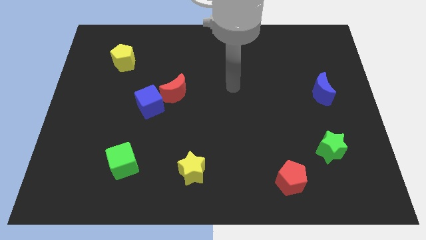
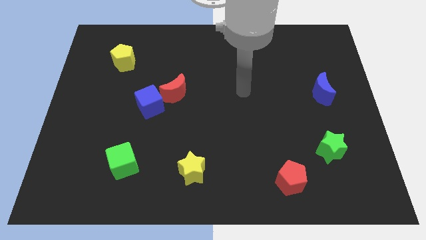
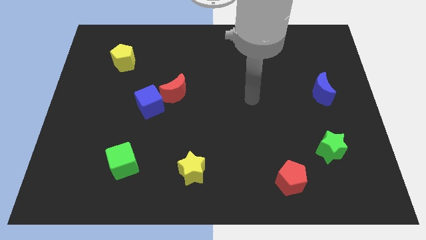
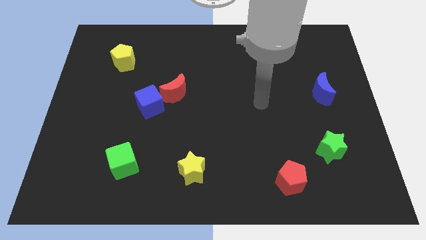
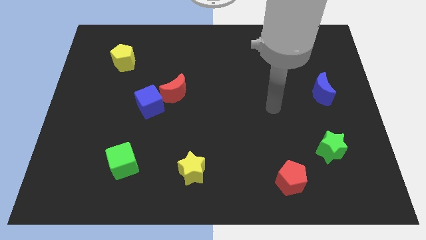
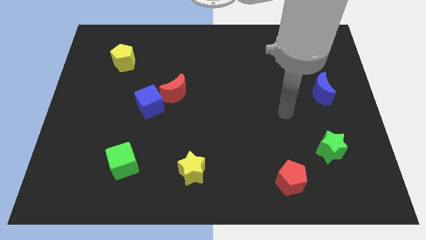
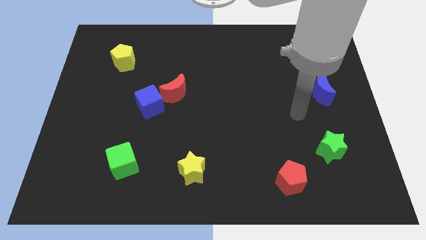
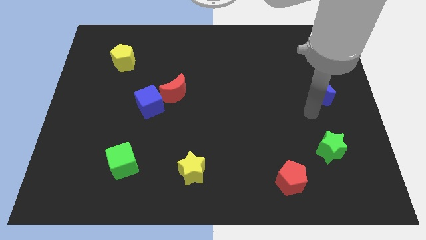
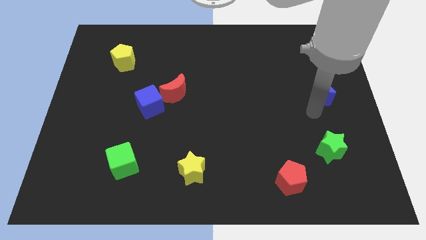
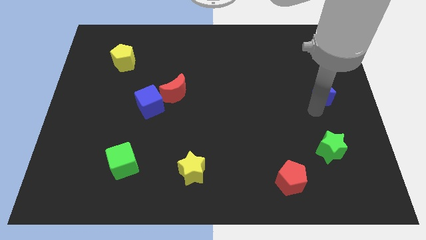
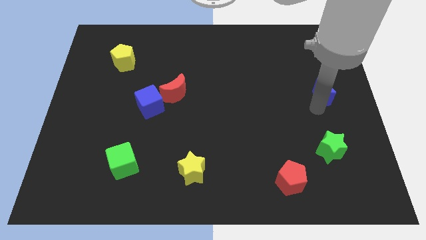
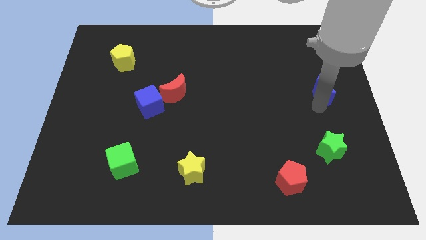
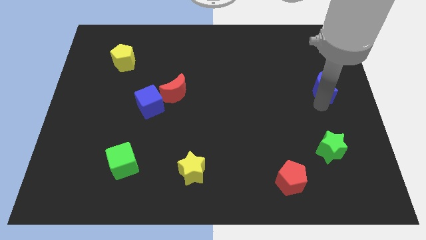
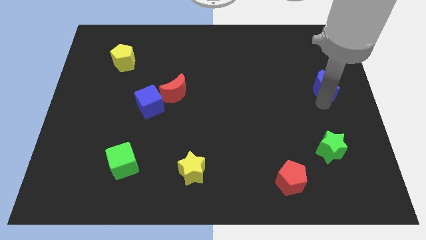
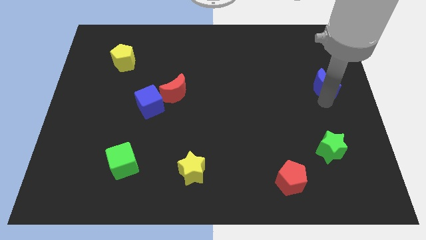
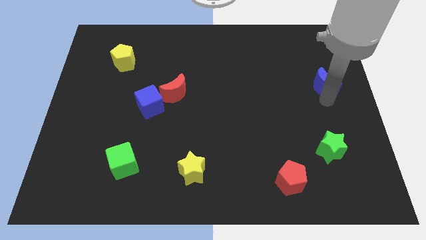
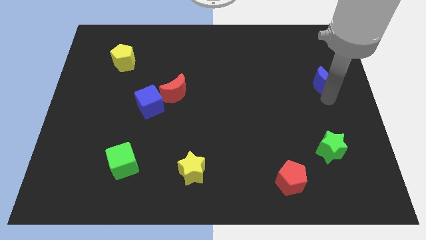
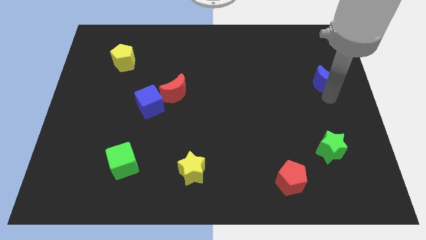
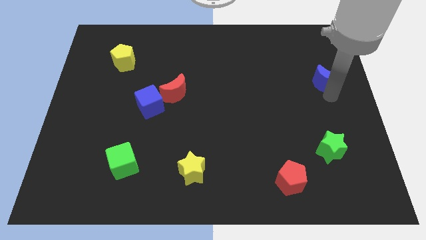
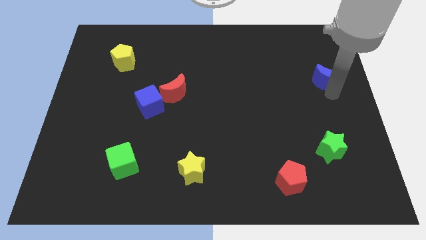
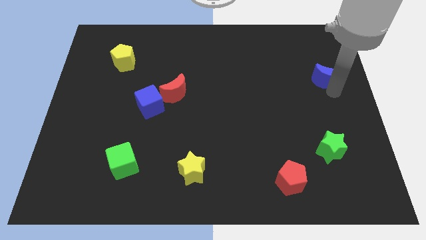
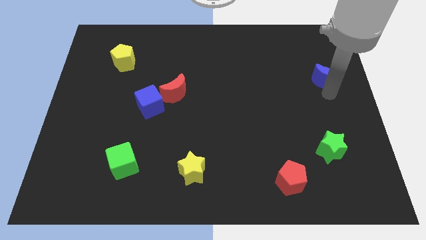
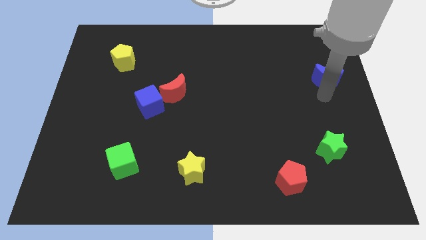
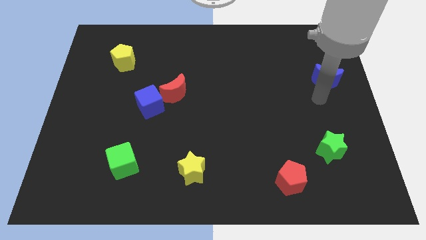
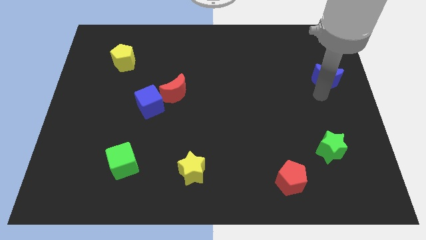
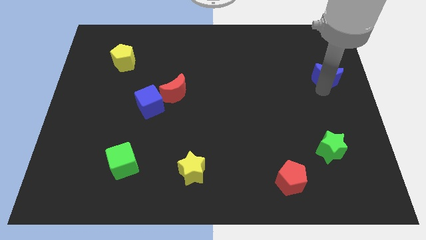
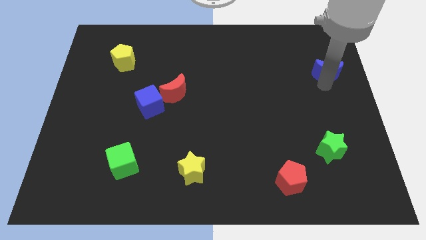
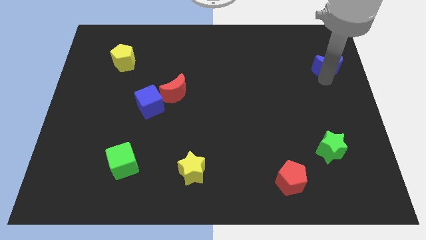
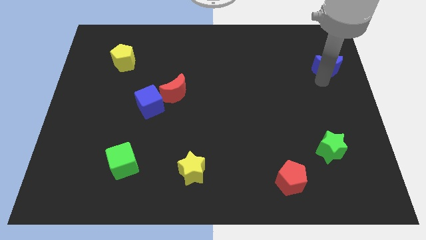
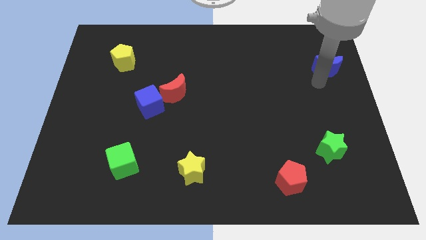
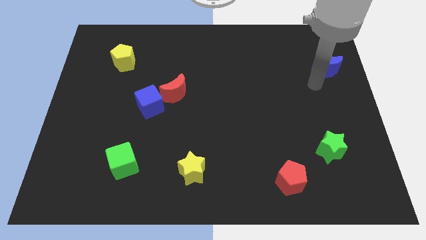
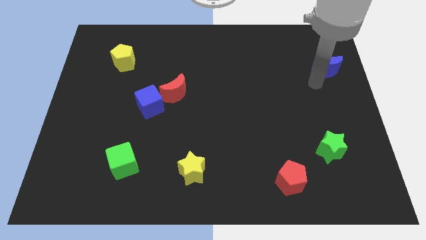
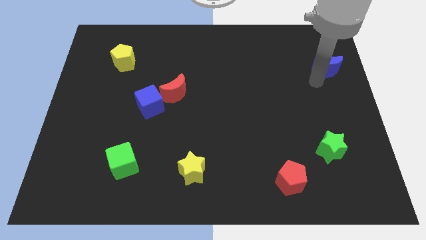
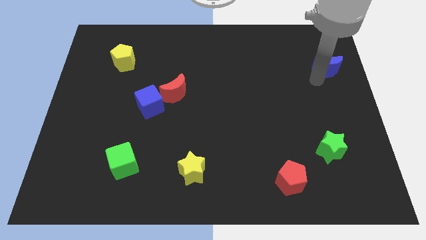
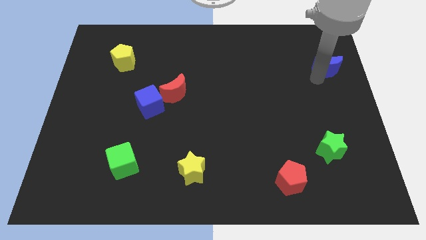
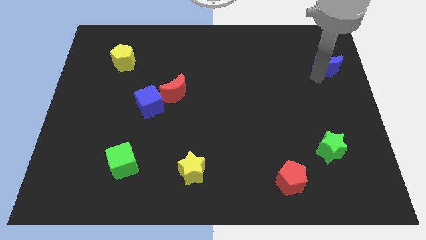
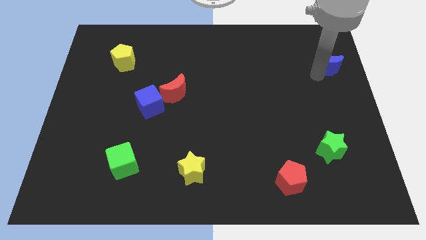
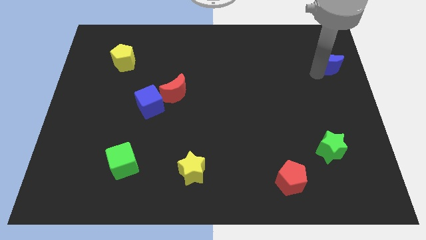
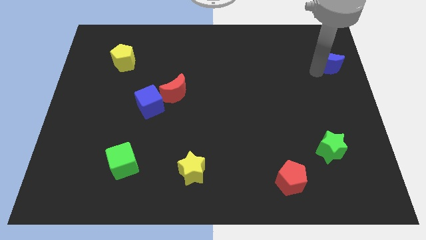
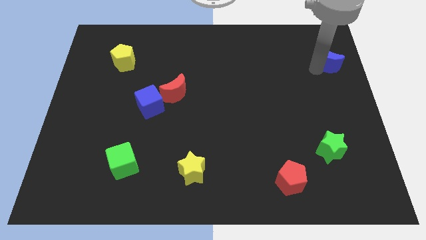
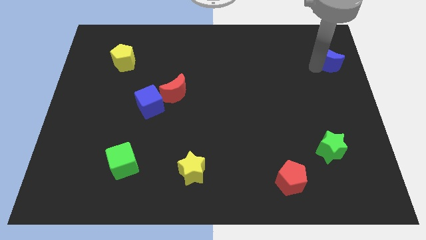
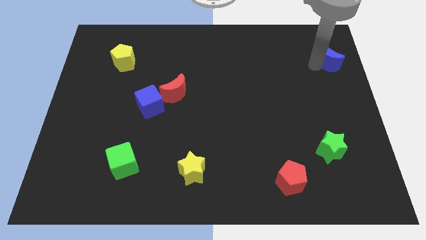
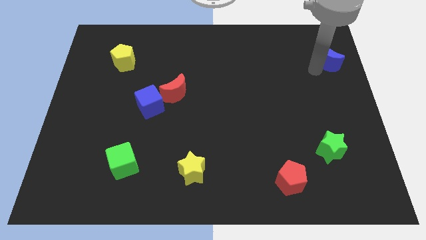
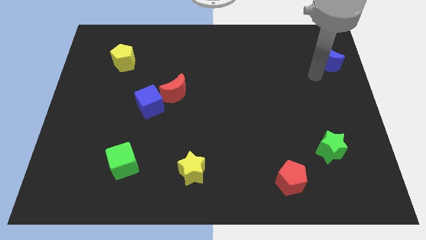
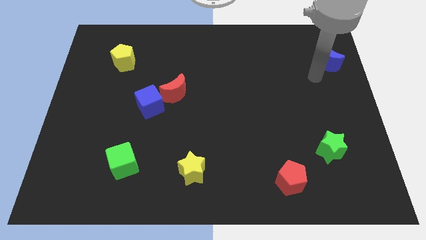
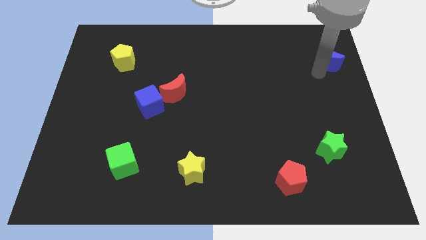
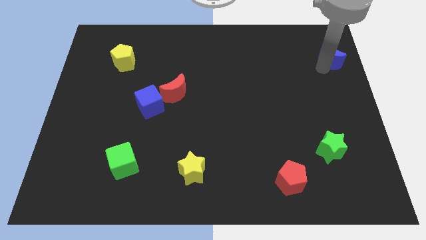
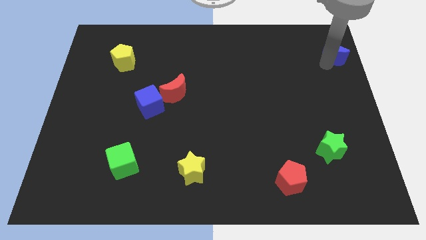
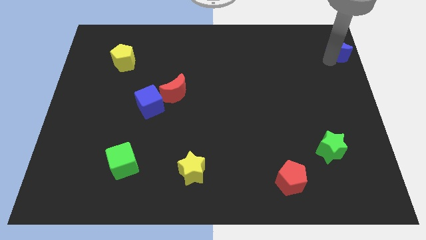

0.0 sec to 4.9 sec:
slide the blue moon to the upper right corner

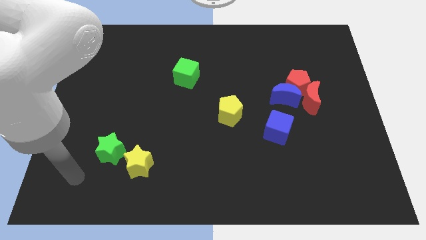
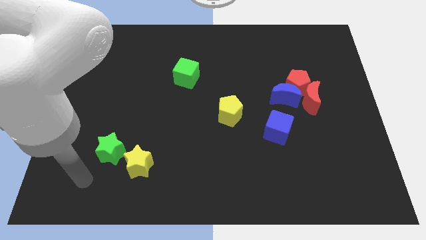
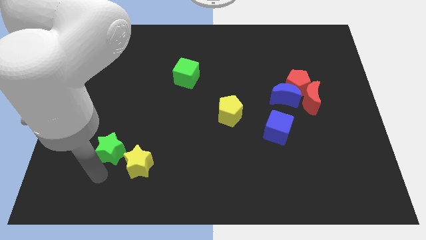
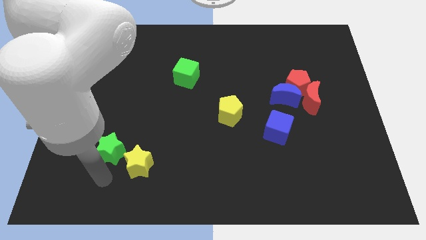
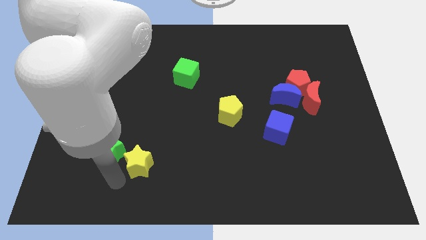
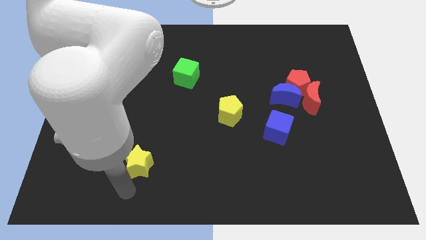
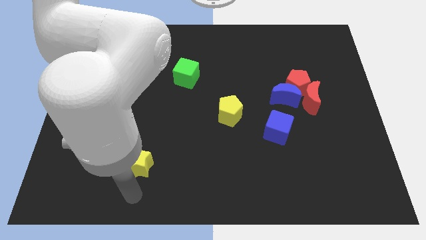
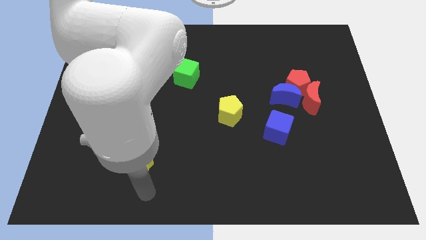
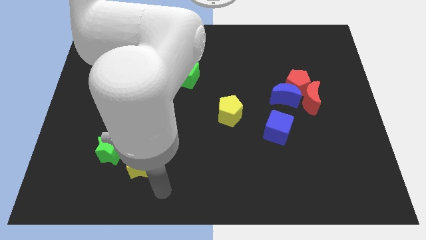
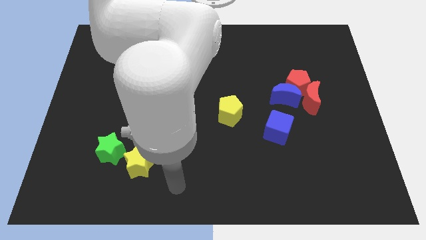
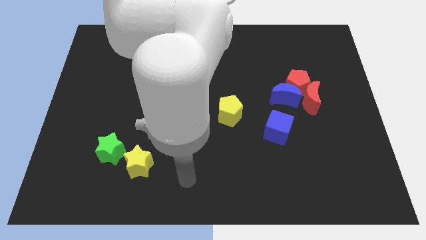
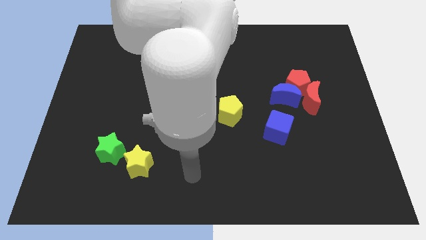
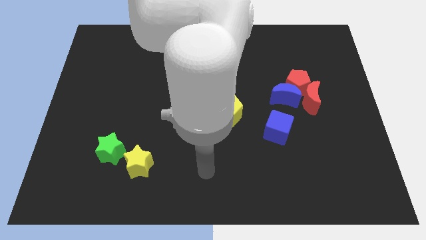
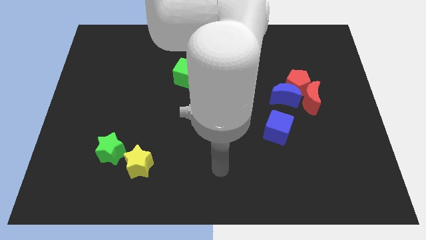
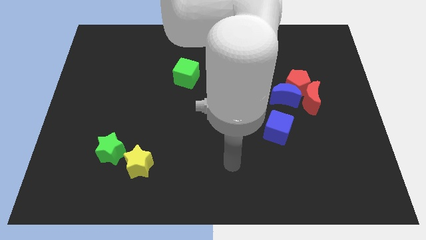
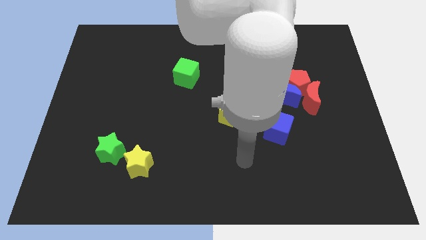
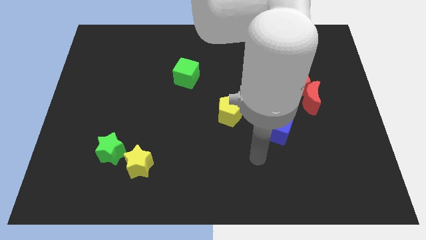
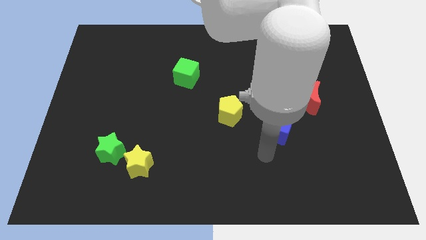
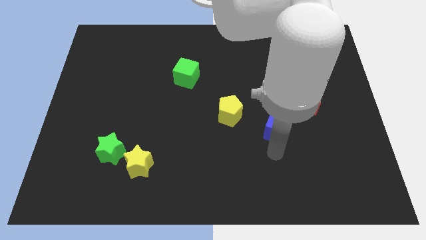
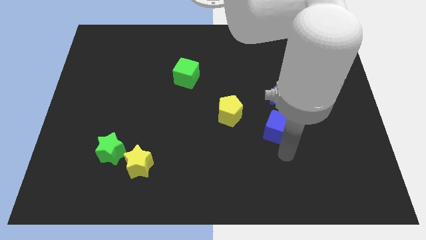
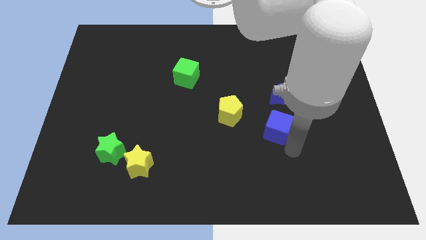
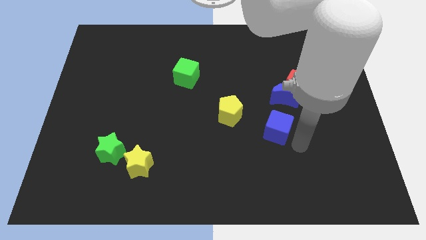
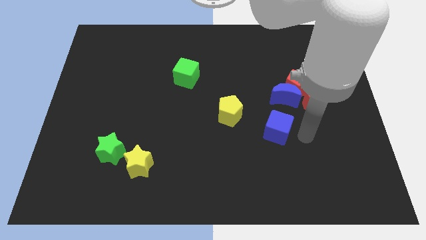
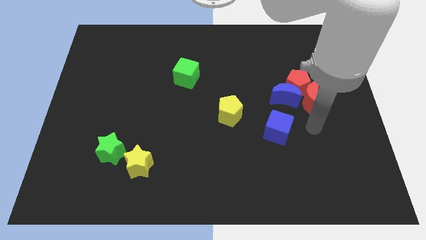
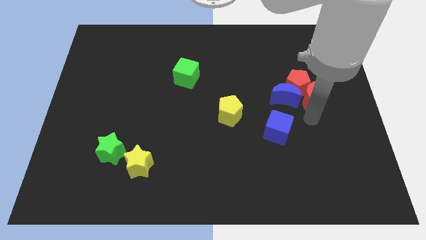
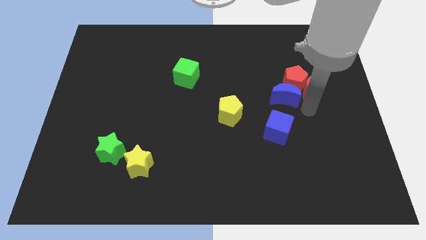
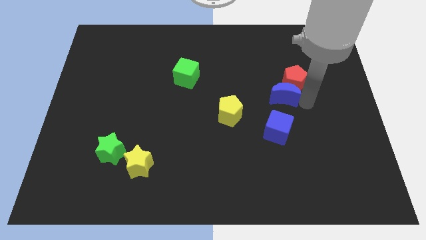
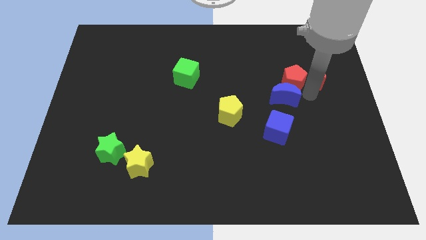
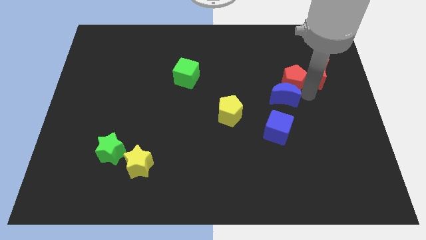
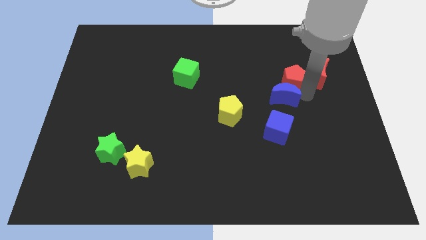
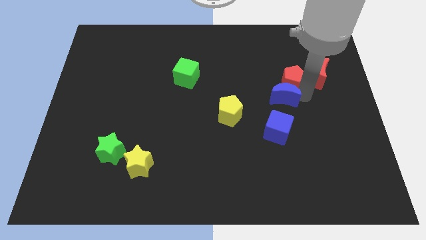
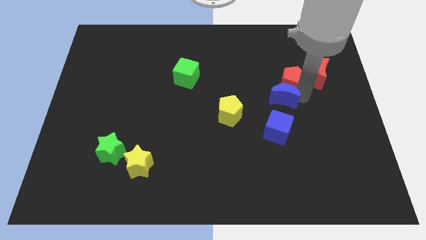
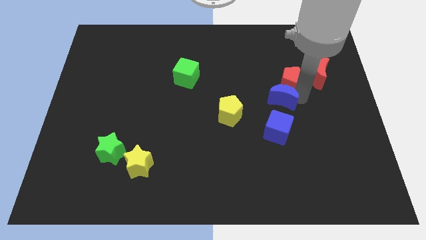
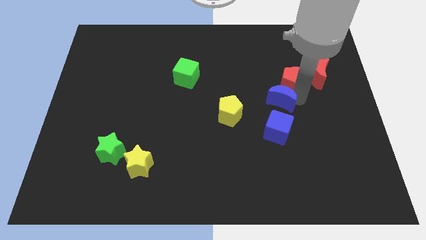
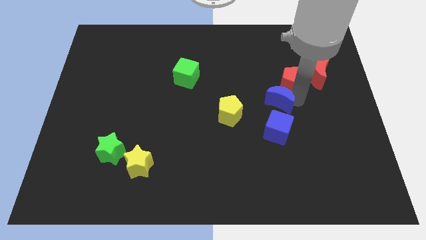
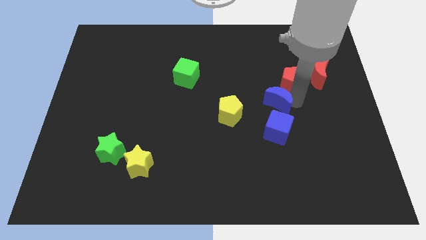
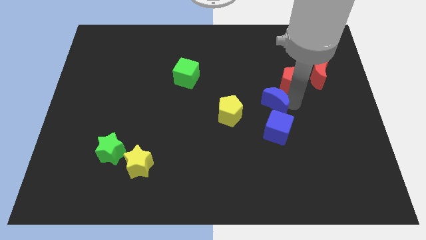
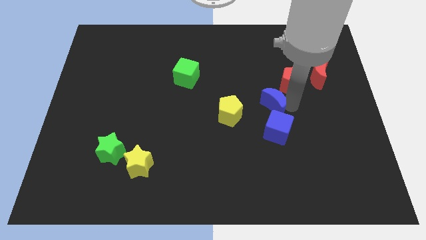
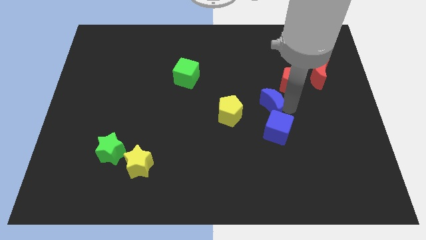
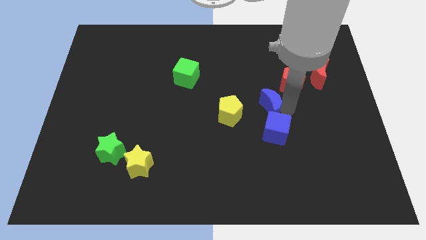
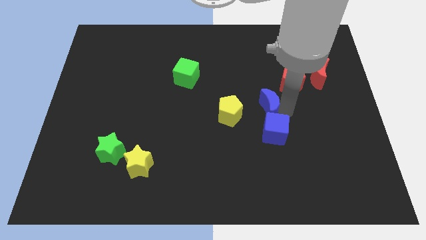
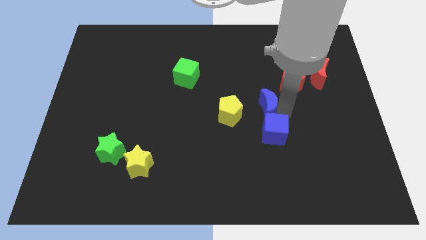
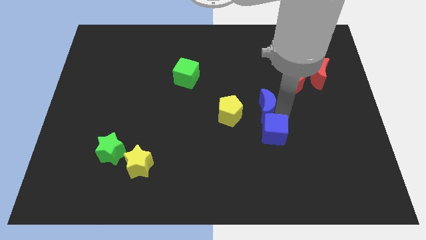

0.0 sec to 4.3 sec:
move the blue moon to the center of the board
